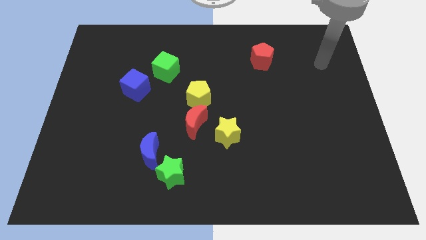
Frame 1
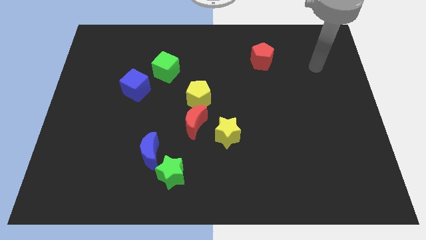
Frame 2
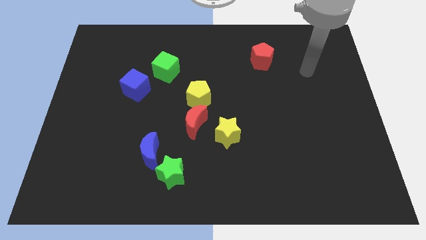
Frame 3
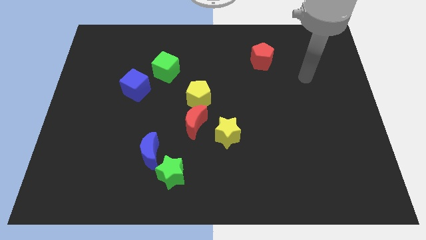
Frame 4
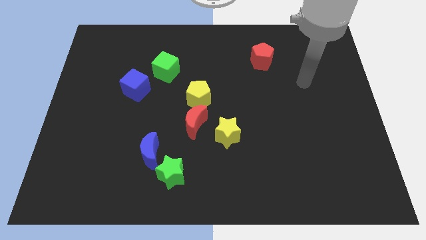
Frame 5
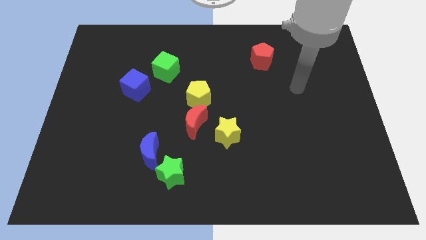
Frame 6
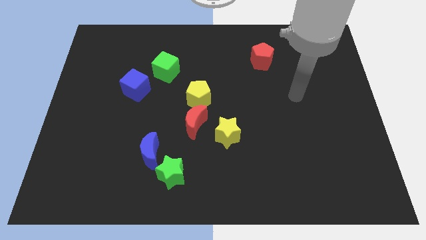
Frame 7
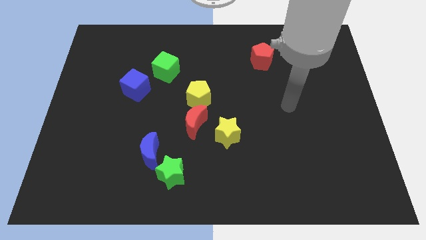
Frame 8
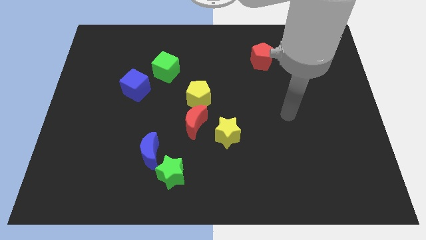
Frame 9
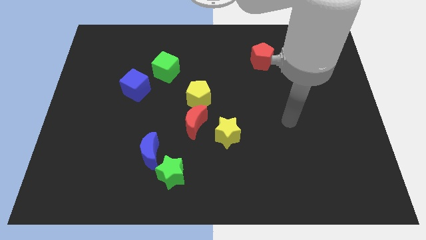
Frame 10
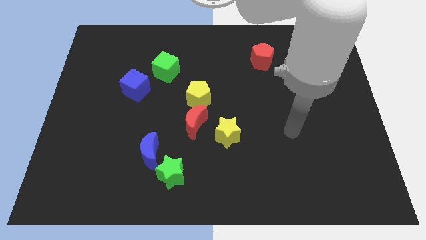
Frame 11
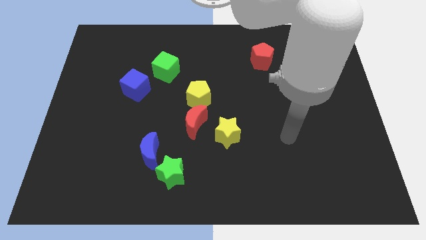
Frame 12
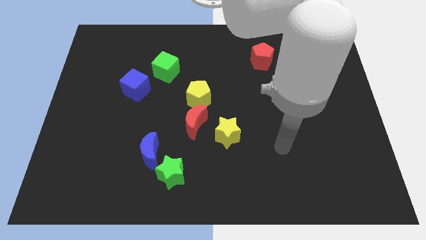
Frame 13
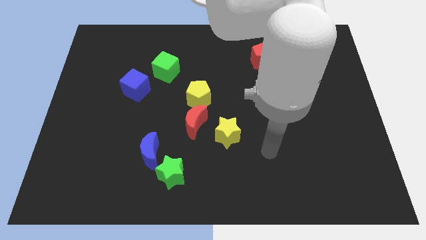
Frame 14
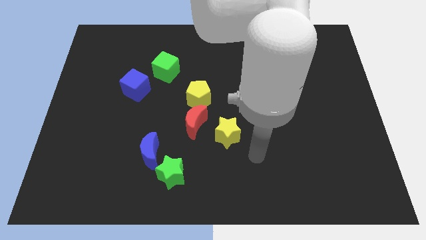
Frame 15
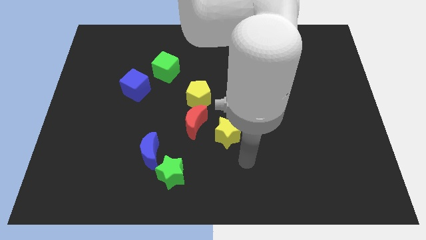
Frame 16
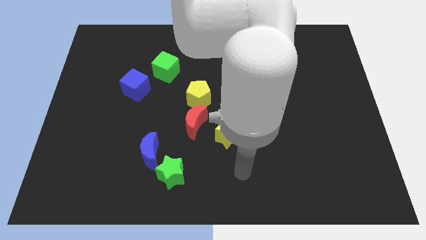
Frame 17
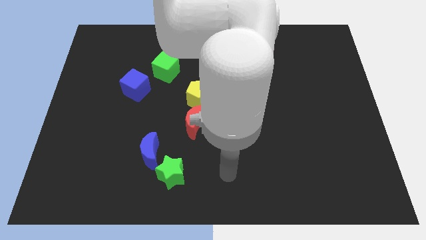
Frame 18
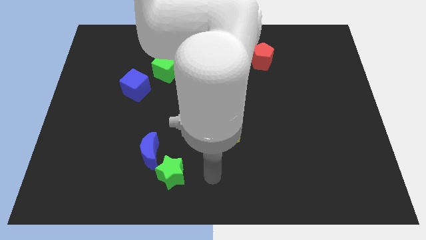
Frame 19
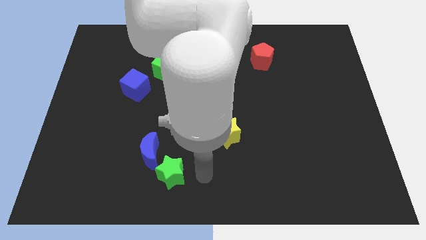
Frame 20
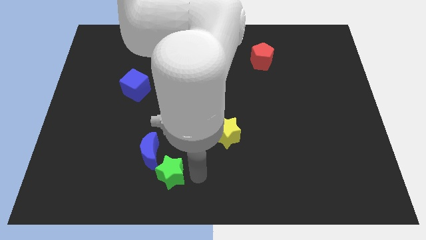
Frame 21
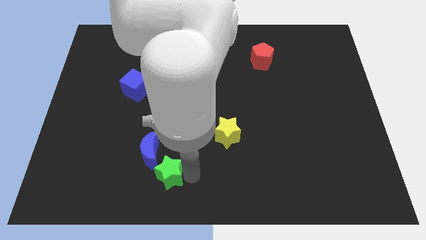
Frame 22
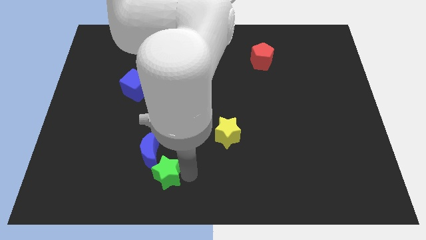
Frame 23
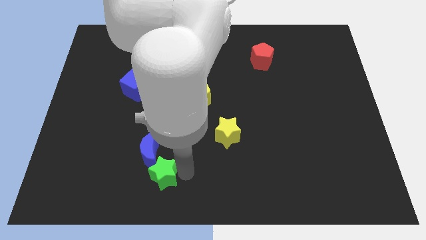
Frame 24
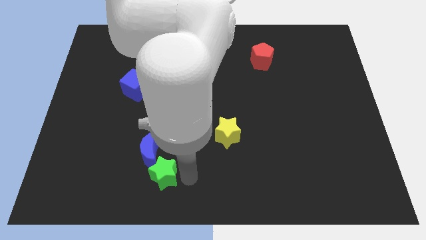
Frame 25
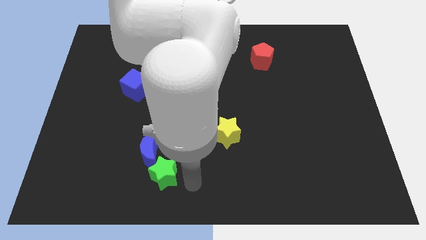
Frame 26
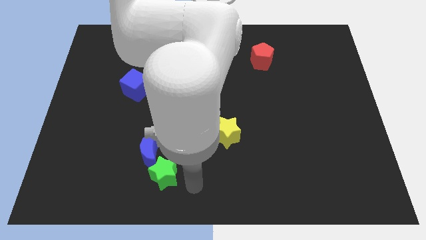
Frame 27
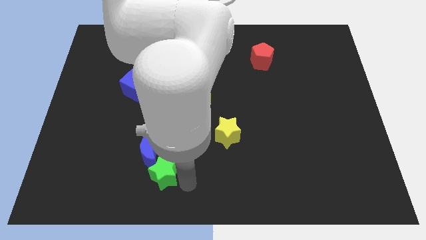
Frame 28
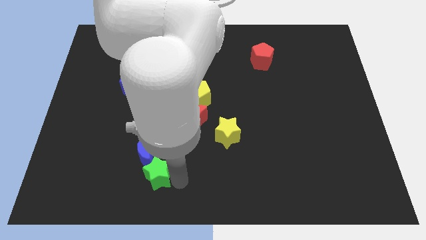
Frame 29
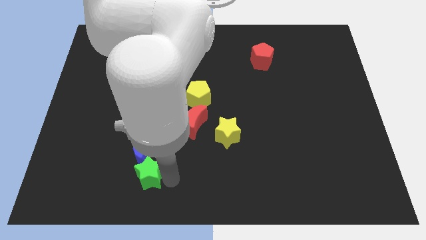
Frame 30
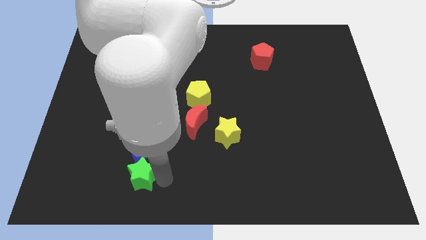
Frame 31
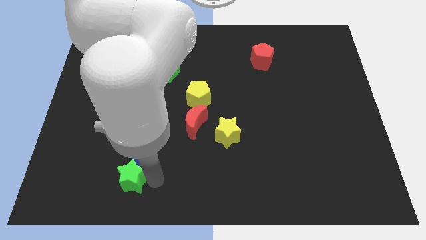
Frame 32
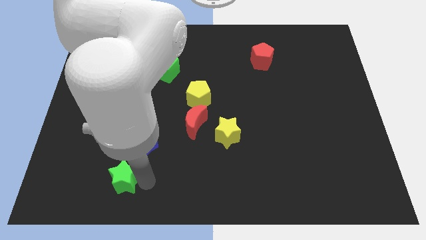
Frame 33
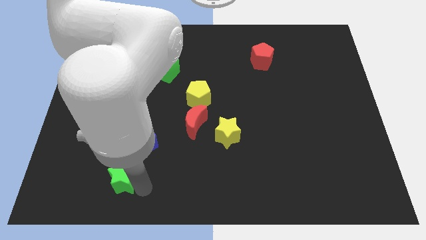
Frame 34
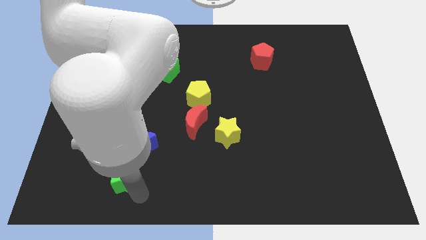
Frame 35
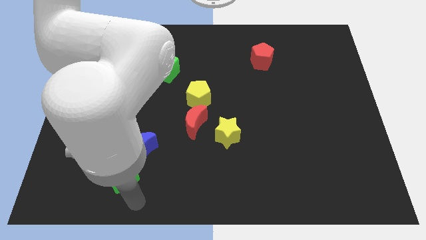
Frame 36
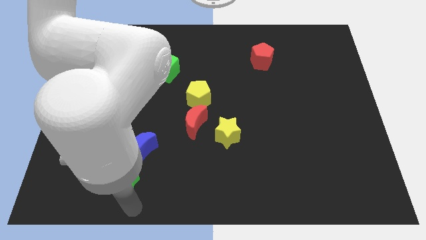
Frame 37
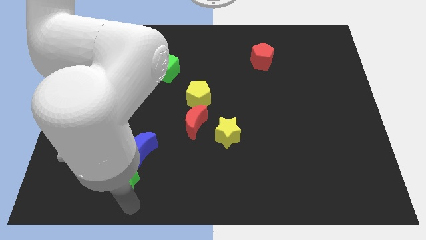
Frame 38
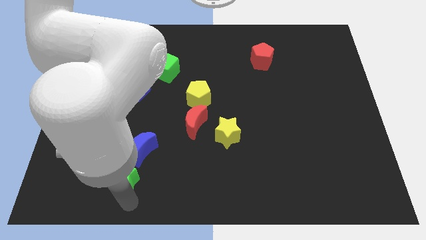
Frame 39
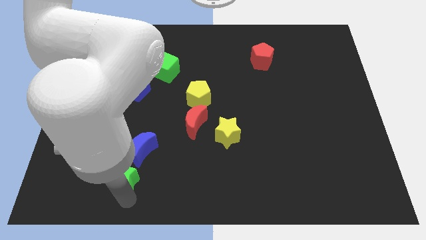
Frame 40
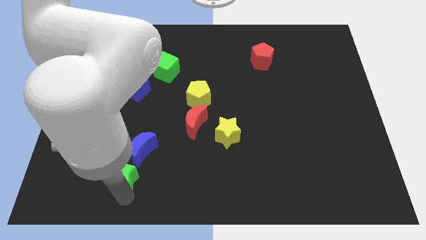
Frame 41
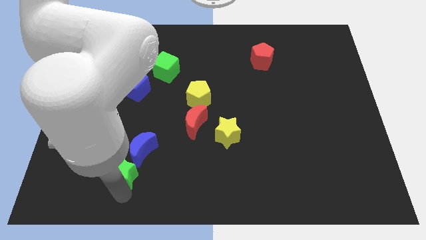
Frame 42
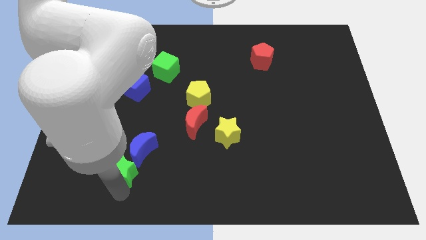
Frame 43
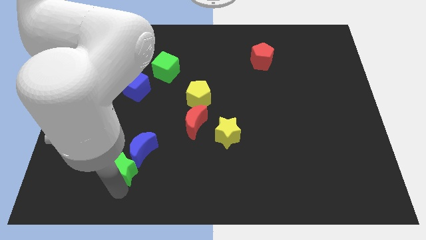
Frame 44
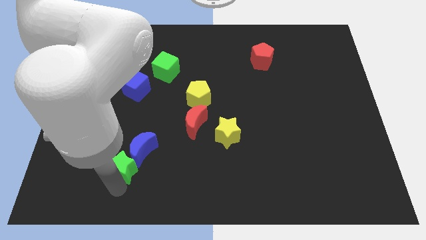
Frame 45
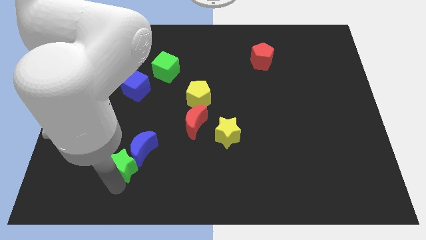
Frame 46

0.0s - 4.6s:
slide the green star upwards and then to the left a bit

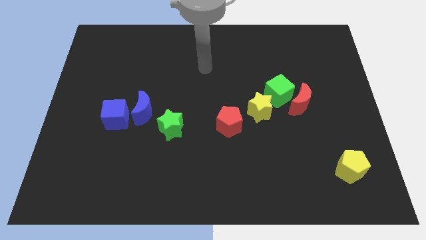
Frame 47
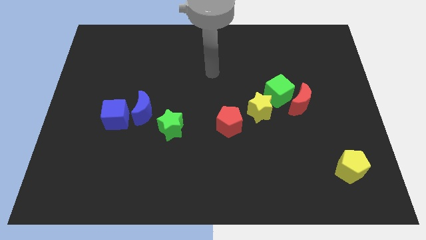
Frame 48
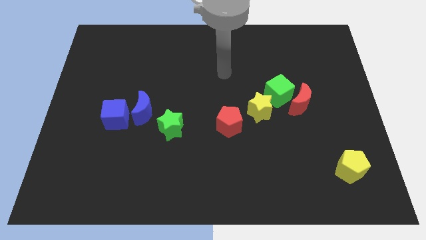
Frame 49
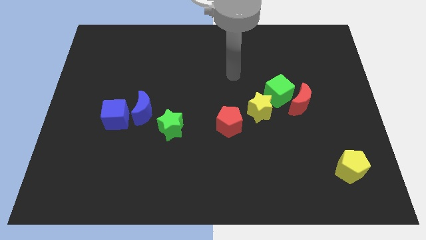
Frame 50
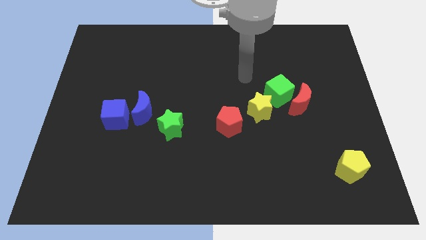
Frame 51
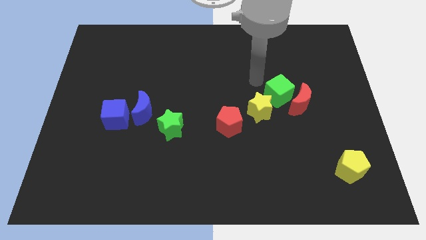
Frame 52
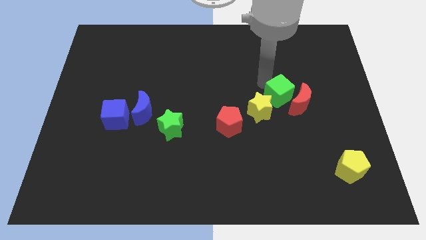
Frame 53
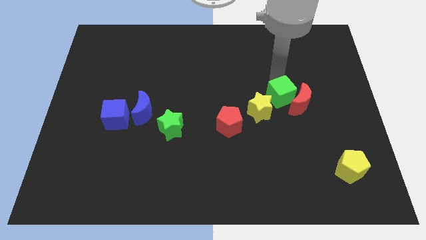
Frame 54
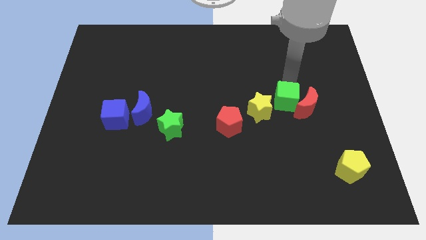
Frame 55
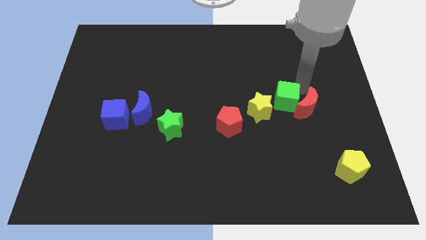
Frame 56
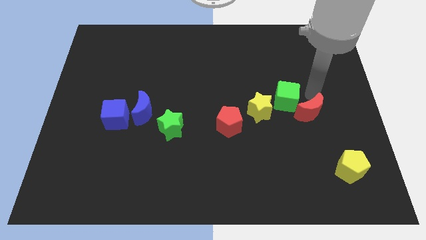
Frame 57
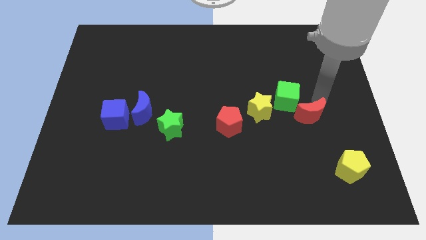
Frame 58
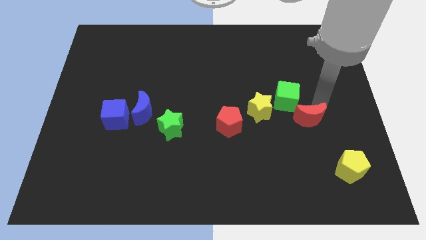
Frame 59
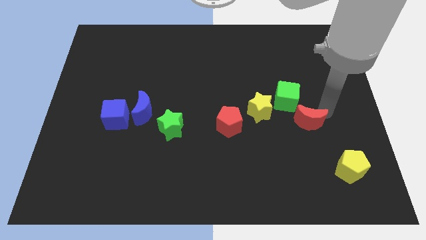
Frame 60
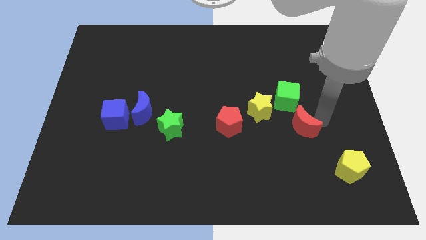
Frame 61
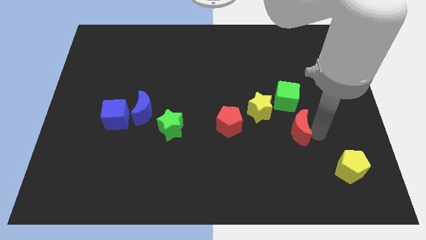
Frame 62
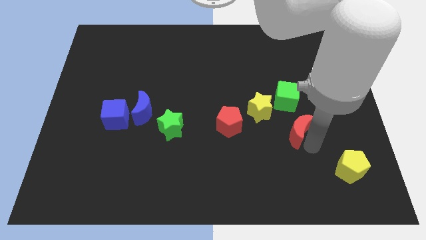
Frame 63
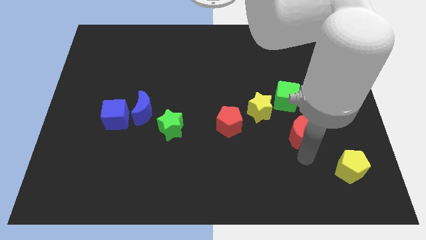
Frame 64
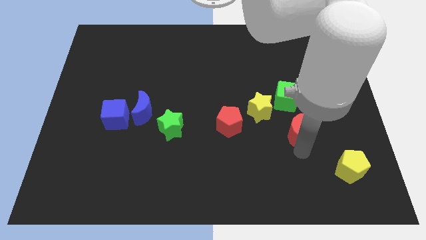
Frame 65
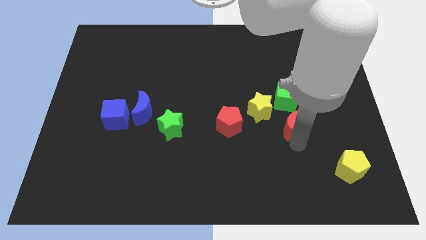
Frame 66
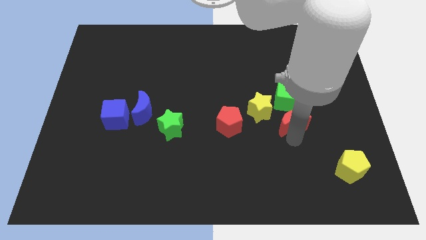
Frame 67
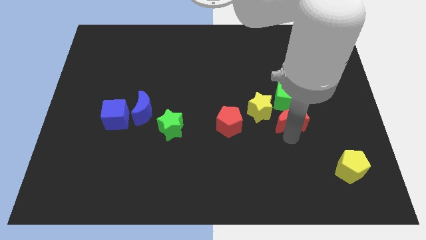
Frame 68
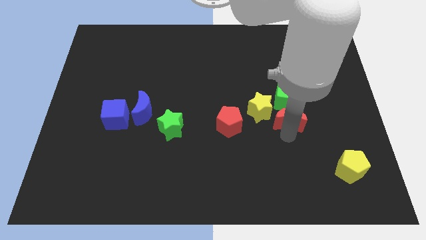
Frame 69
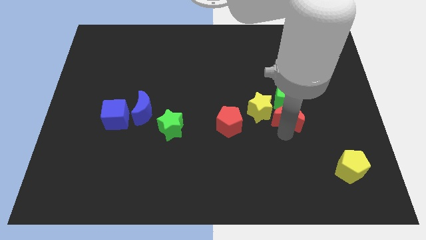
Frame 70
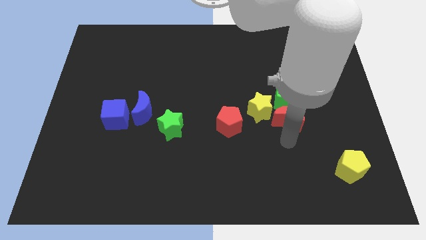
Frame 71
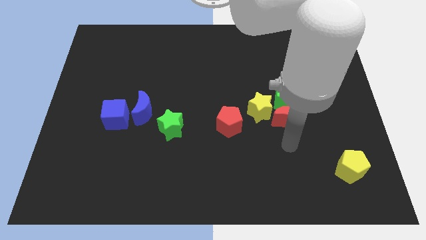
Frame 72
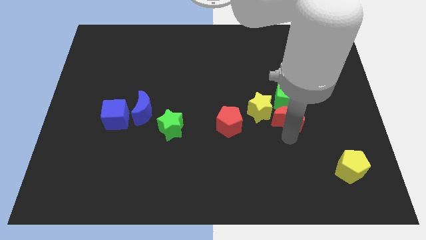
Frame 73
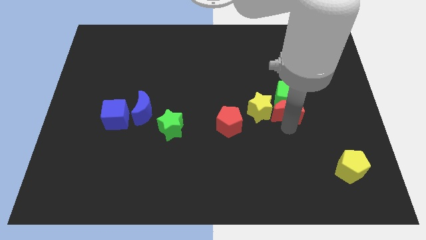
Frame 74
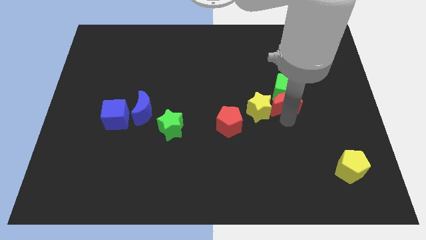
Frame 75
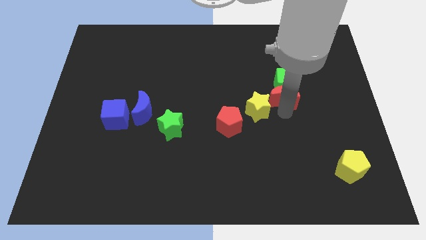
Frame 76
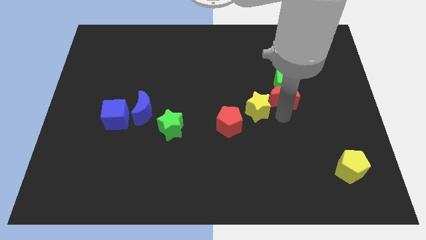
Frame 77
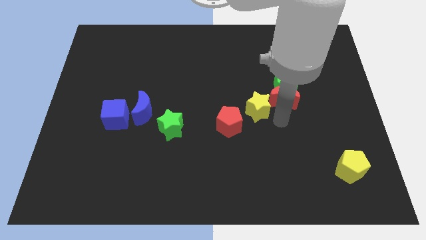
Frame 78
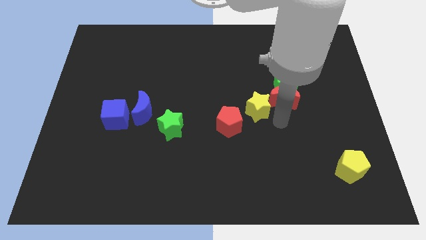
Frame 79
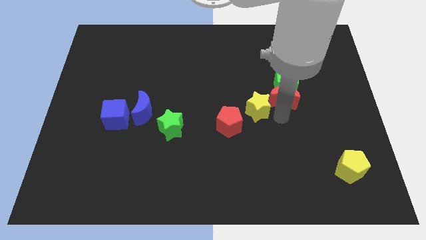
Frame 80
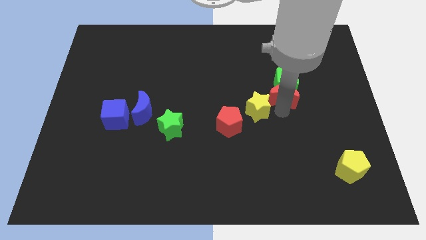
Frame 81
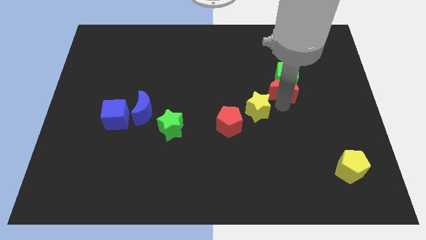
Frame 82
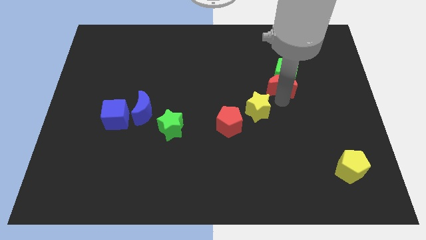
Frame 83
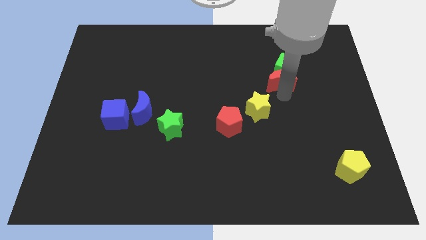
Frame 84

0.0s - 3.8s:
slightly move the red moon up and to the left diagonally
